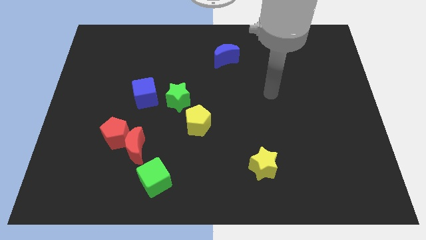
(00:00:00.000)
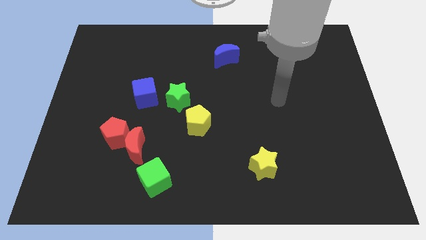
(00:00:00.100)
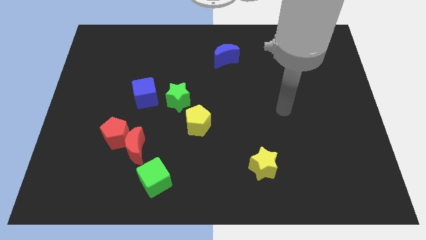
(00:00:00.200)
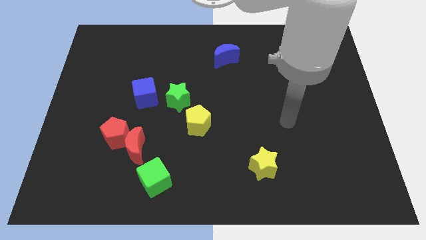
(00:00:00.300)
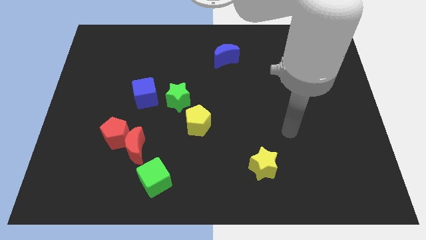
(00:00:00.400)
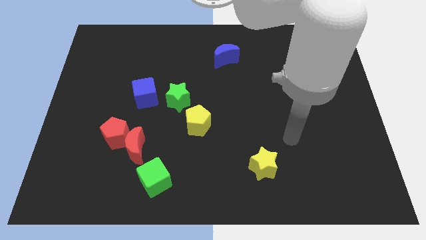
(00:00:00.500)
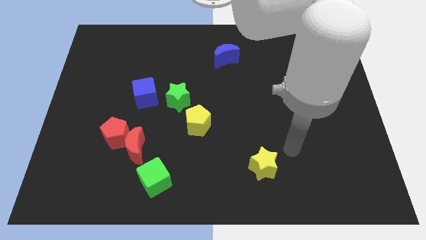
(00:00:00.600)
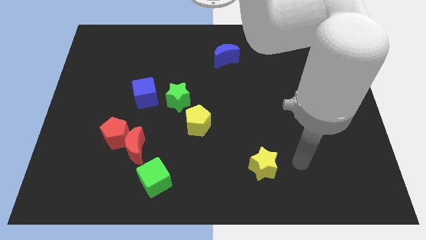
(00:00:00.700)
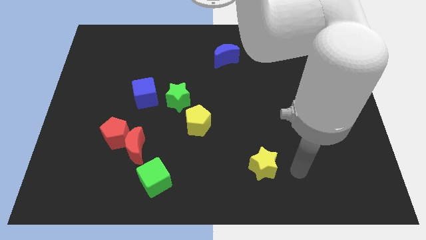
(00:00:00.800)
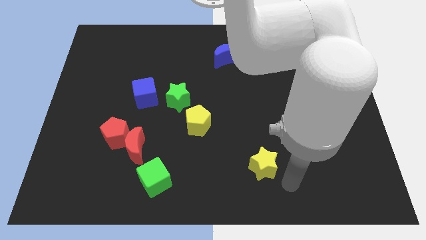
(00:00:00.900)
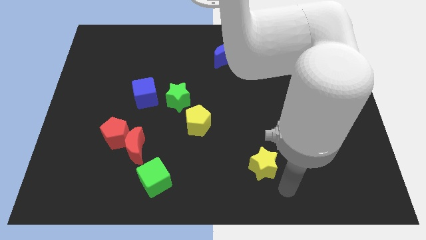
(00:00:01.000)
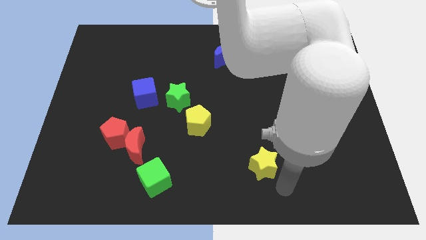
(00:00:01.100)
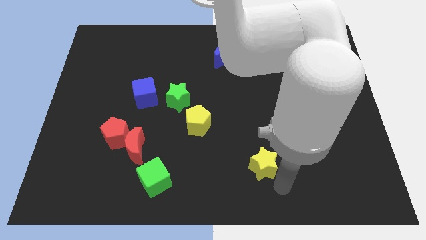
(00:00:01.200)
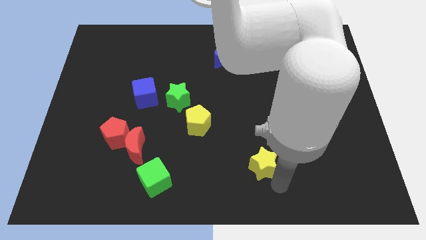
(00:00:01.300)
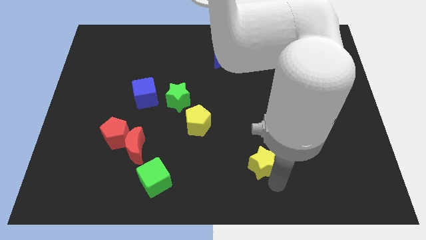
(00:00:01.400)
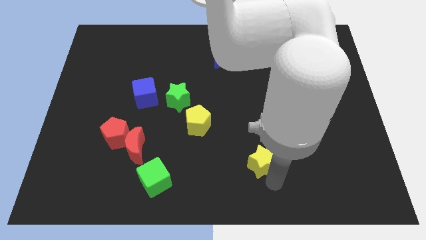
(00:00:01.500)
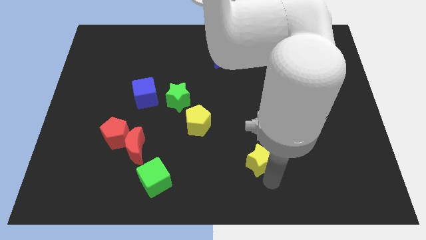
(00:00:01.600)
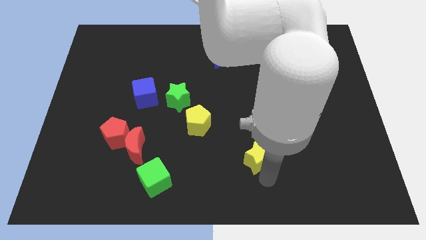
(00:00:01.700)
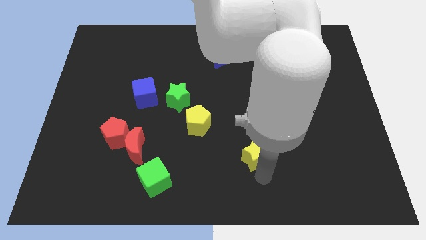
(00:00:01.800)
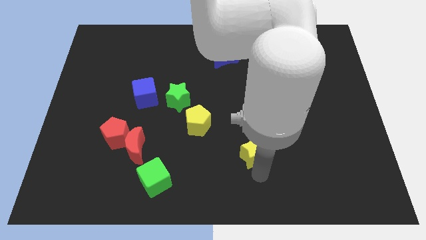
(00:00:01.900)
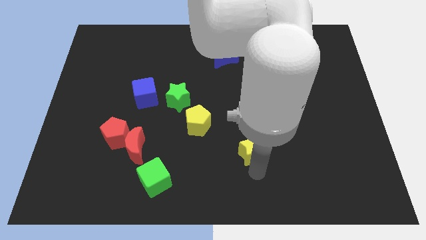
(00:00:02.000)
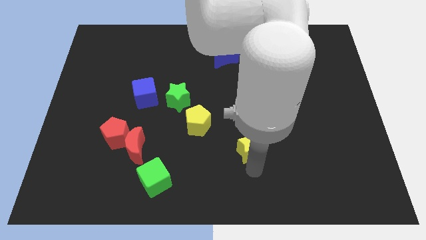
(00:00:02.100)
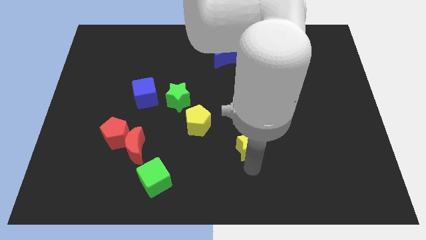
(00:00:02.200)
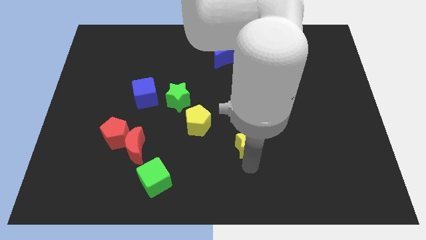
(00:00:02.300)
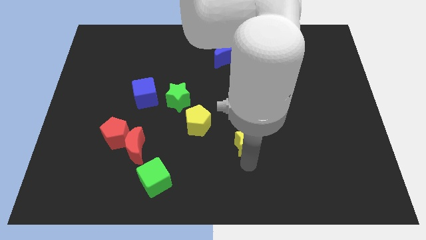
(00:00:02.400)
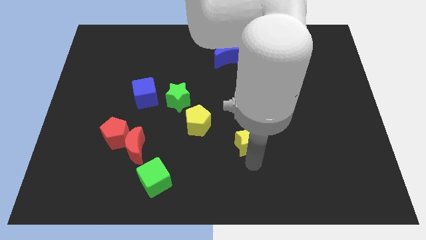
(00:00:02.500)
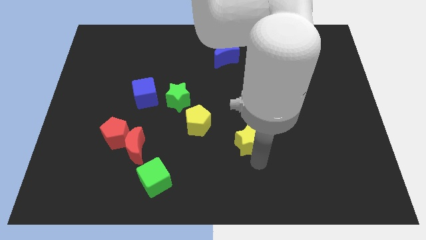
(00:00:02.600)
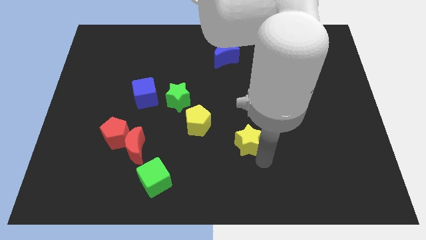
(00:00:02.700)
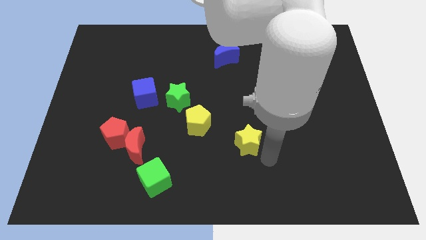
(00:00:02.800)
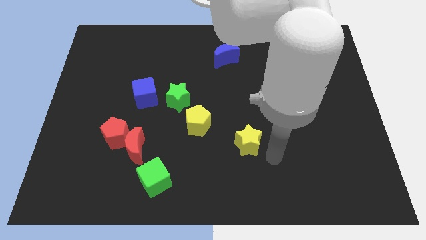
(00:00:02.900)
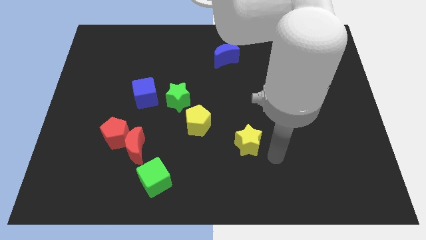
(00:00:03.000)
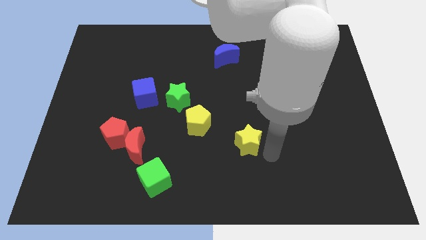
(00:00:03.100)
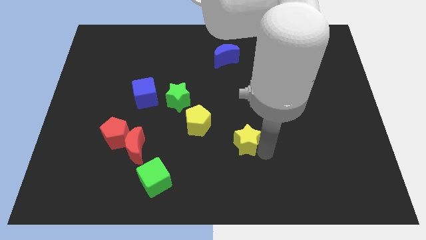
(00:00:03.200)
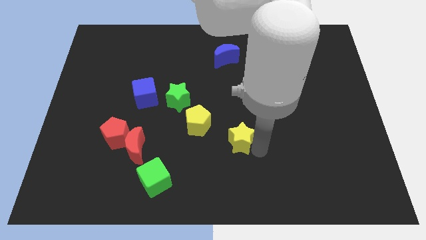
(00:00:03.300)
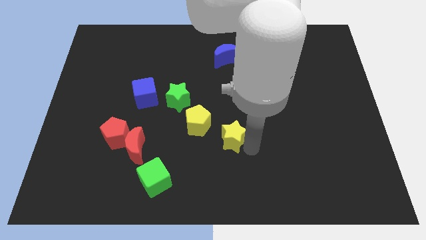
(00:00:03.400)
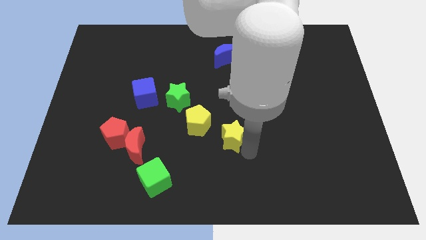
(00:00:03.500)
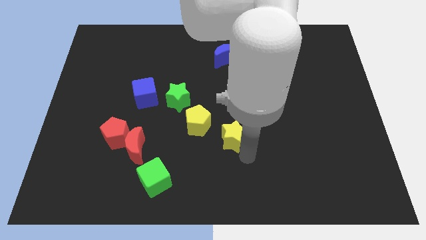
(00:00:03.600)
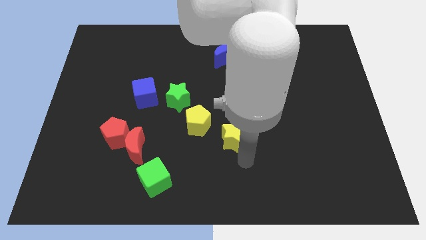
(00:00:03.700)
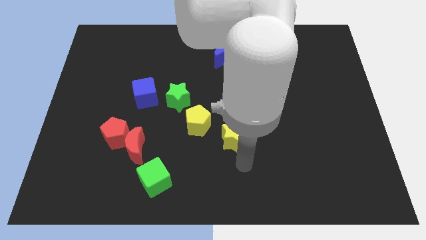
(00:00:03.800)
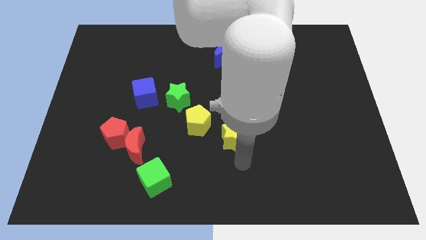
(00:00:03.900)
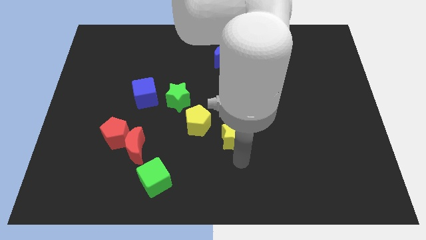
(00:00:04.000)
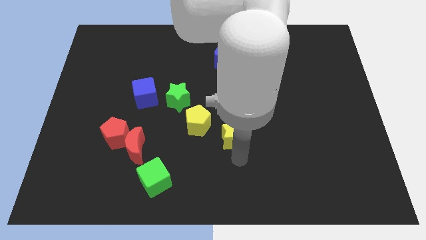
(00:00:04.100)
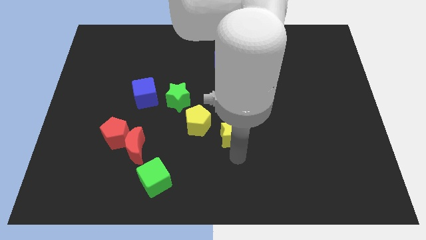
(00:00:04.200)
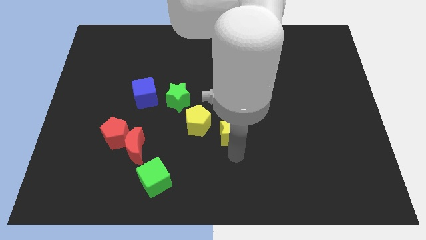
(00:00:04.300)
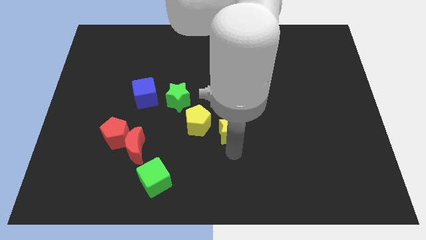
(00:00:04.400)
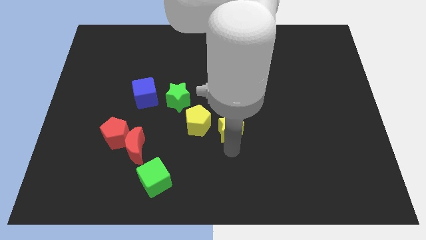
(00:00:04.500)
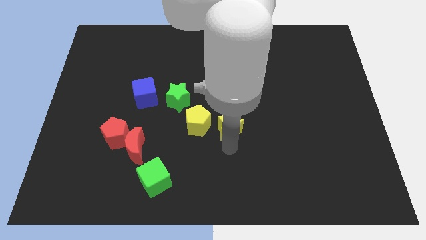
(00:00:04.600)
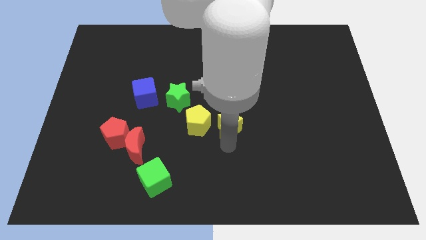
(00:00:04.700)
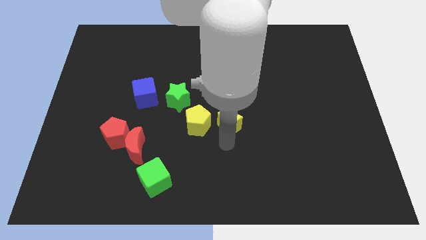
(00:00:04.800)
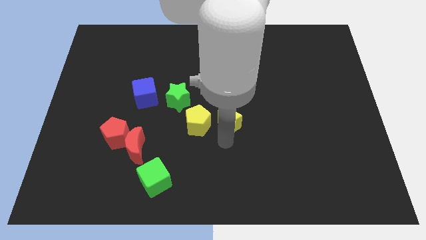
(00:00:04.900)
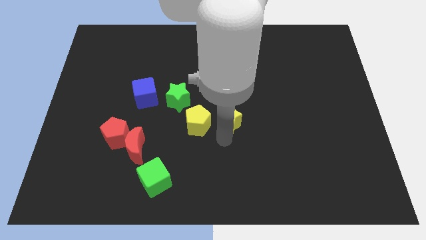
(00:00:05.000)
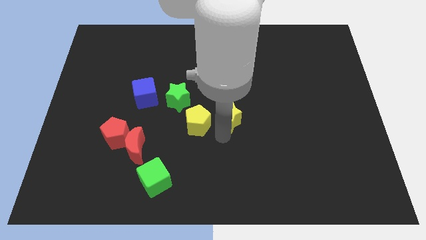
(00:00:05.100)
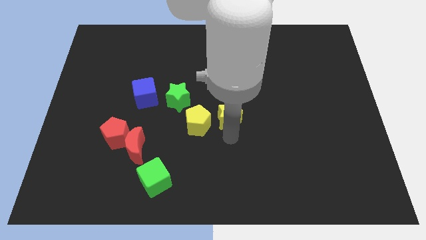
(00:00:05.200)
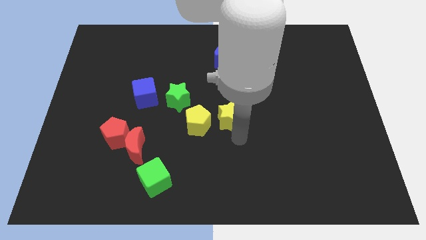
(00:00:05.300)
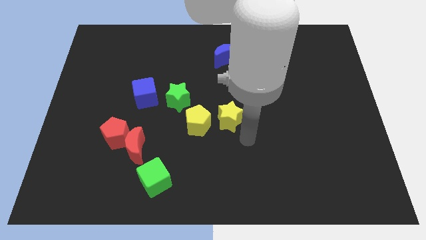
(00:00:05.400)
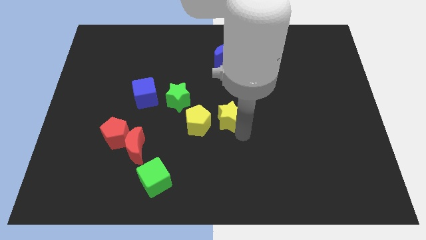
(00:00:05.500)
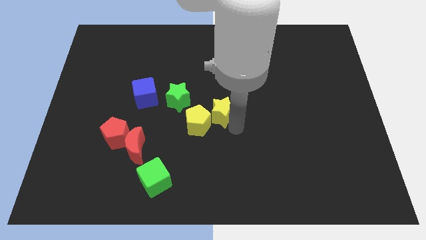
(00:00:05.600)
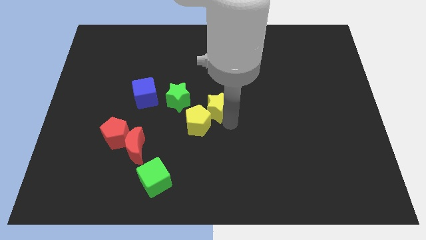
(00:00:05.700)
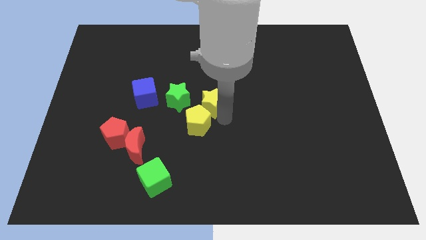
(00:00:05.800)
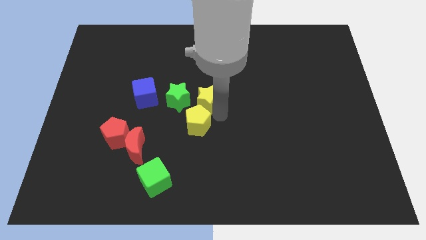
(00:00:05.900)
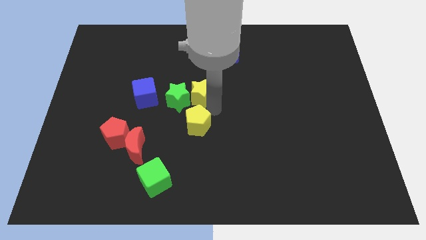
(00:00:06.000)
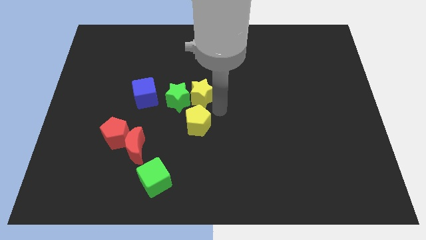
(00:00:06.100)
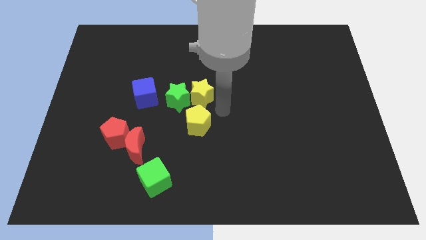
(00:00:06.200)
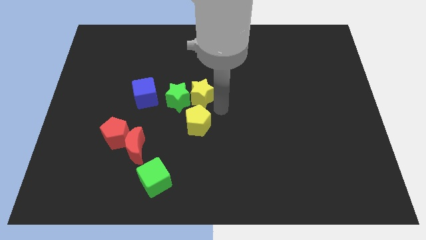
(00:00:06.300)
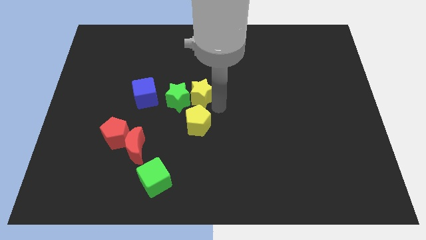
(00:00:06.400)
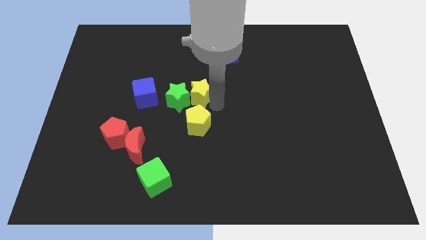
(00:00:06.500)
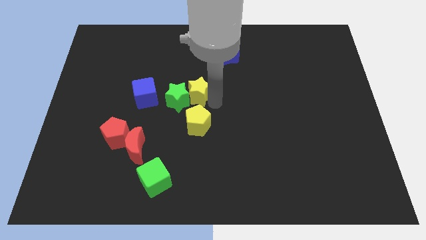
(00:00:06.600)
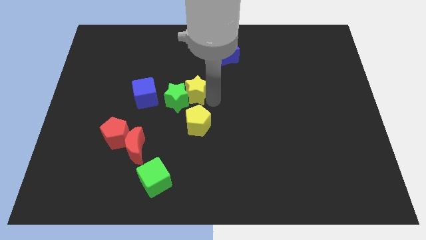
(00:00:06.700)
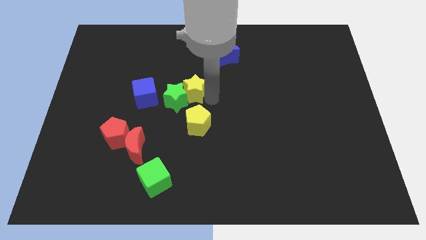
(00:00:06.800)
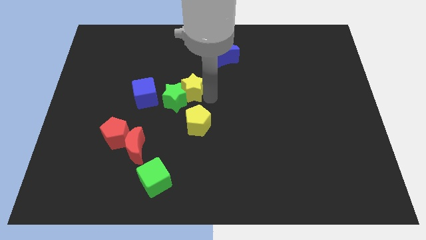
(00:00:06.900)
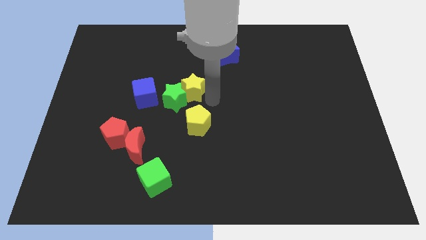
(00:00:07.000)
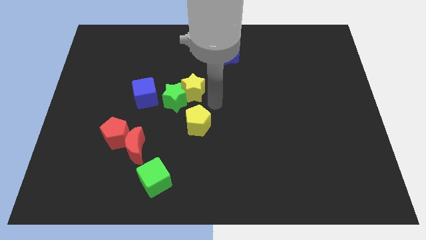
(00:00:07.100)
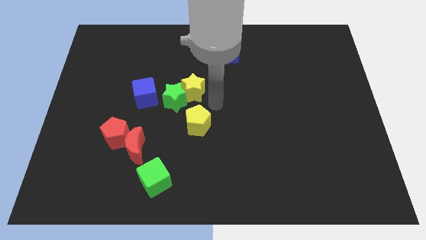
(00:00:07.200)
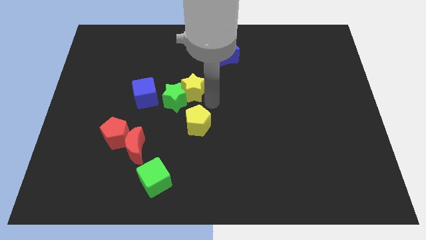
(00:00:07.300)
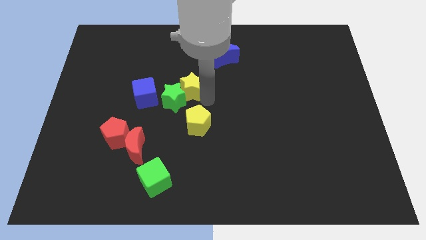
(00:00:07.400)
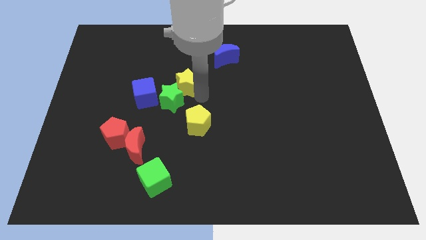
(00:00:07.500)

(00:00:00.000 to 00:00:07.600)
put the yellow star to the top right side of the blue cube
